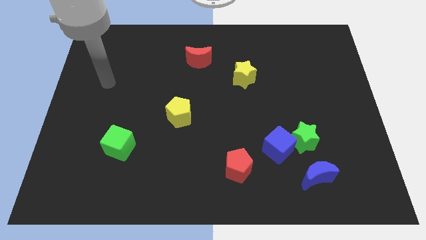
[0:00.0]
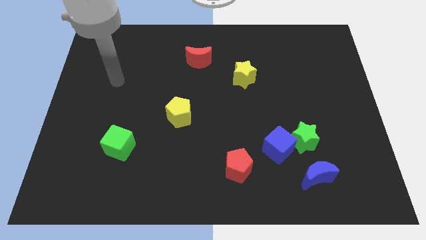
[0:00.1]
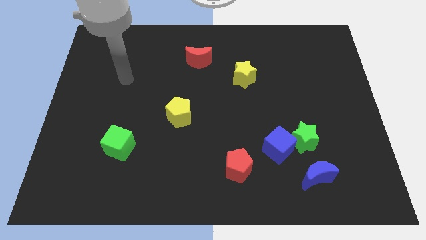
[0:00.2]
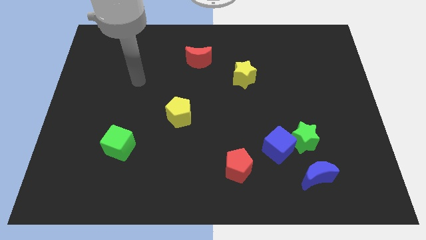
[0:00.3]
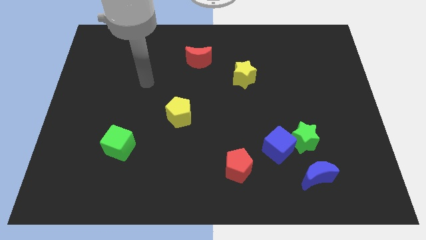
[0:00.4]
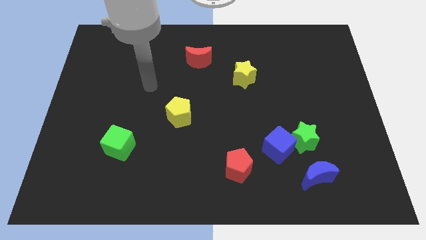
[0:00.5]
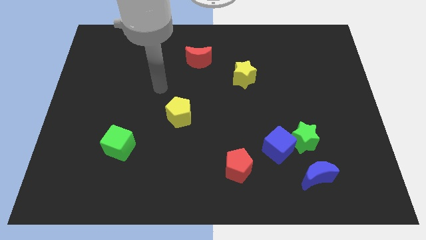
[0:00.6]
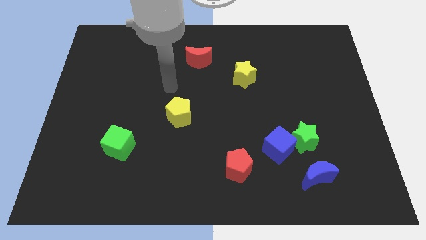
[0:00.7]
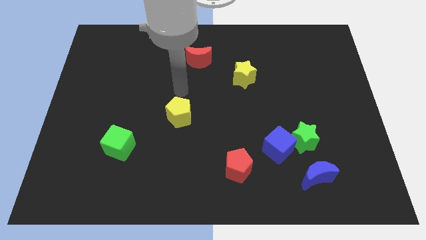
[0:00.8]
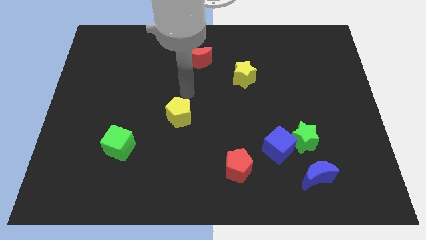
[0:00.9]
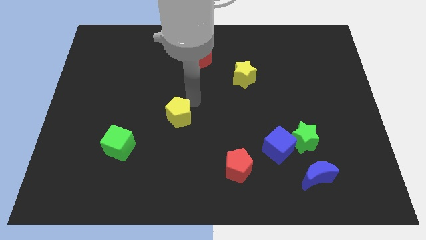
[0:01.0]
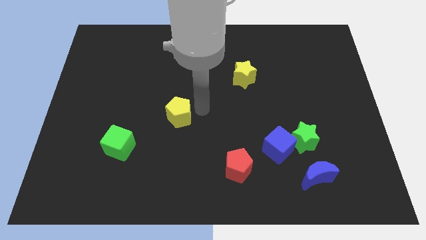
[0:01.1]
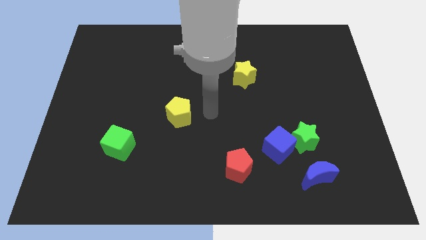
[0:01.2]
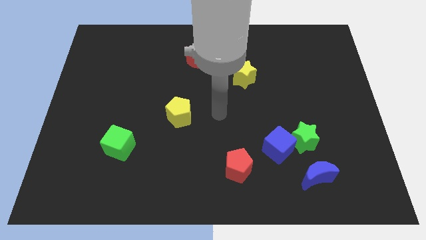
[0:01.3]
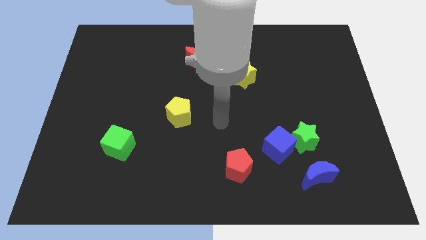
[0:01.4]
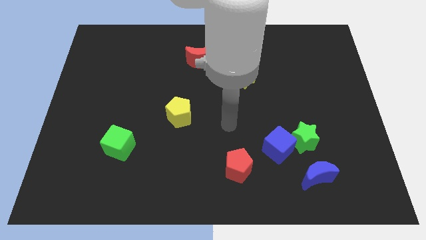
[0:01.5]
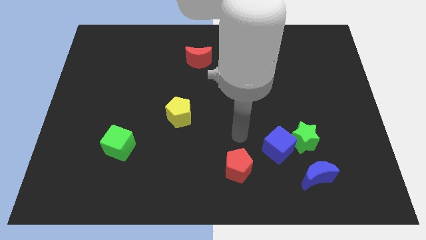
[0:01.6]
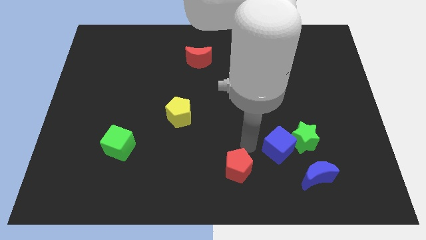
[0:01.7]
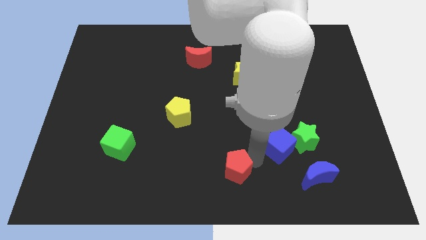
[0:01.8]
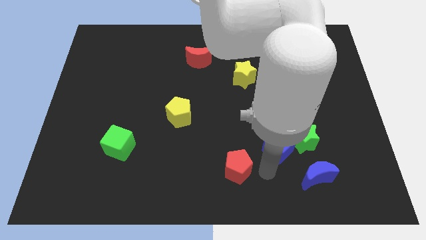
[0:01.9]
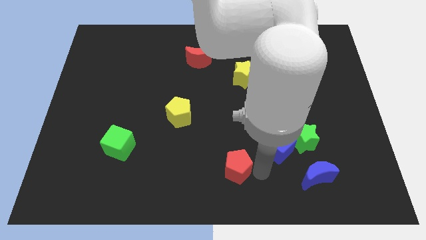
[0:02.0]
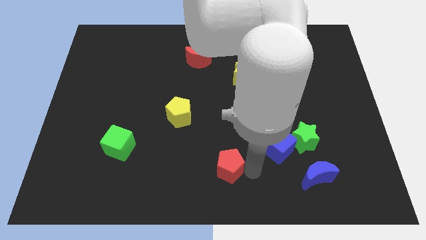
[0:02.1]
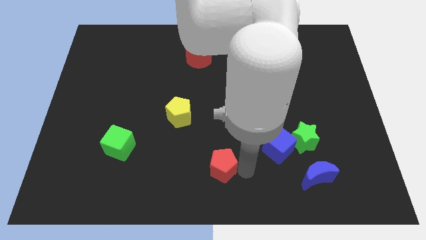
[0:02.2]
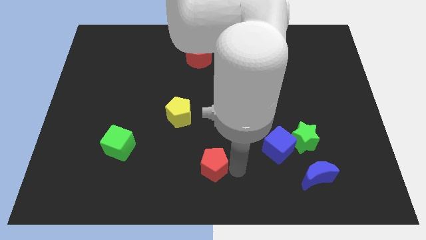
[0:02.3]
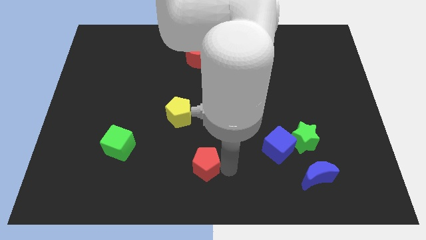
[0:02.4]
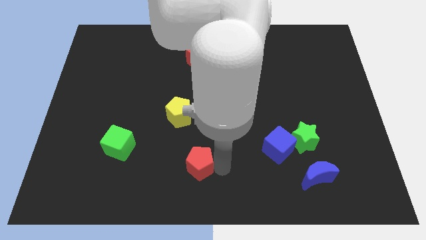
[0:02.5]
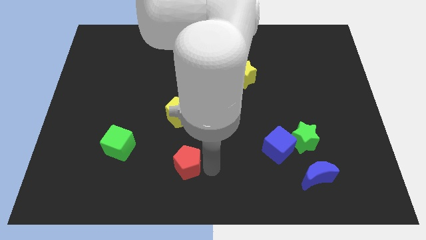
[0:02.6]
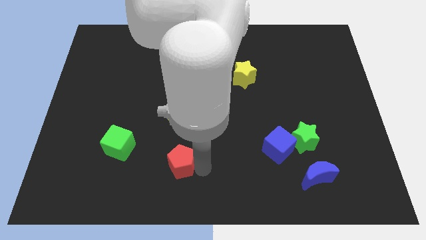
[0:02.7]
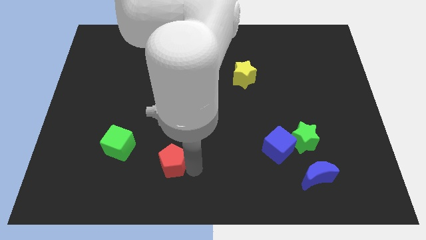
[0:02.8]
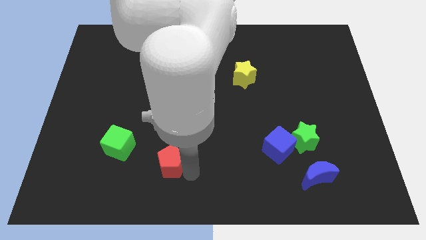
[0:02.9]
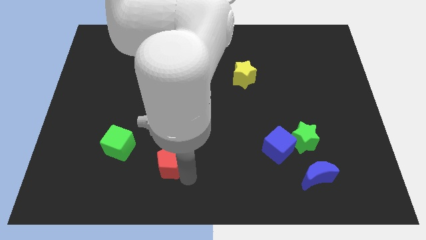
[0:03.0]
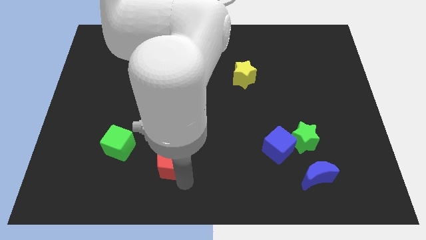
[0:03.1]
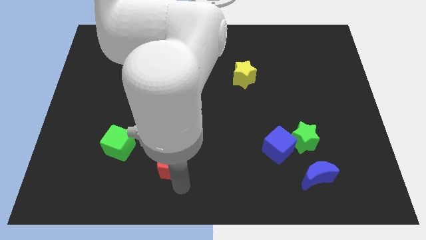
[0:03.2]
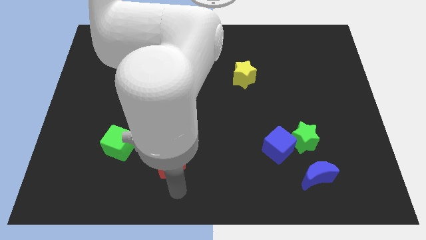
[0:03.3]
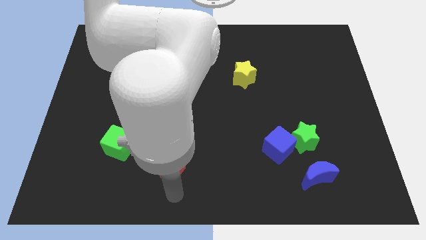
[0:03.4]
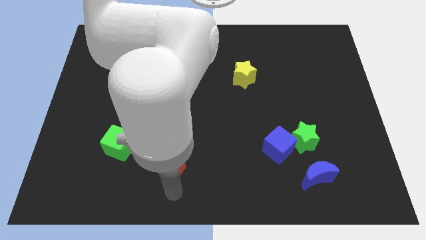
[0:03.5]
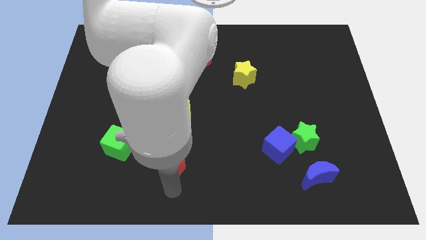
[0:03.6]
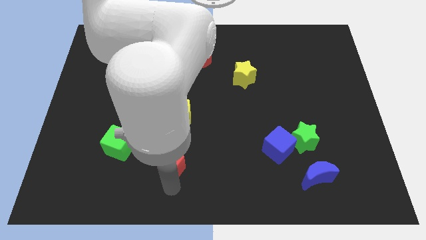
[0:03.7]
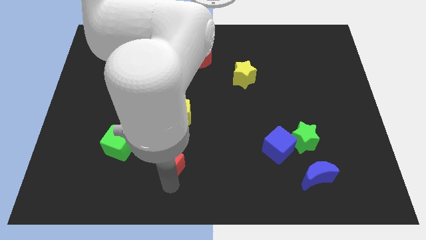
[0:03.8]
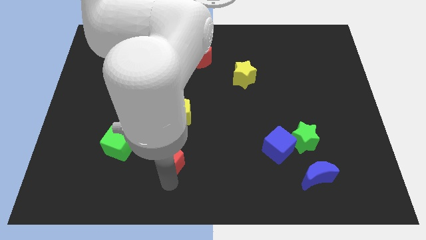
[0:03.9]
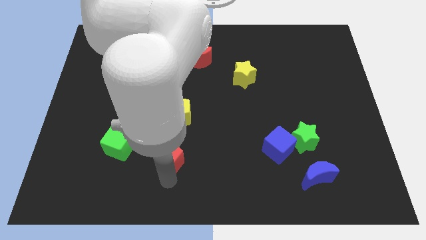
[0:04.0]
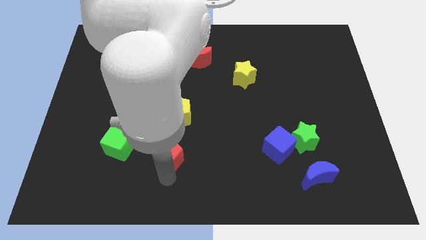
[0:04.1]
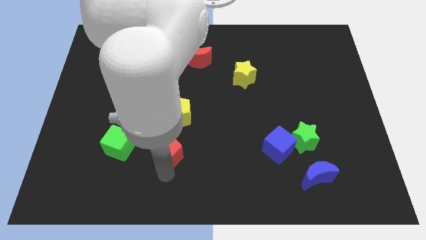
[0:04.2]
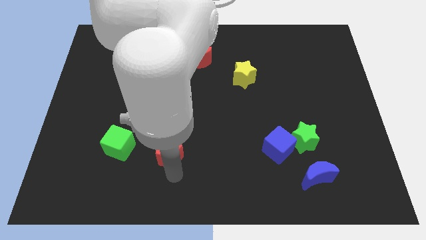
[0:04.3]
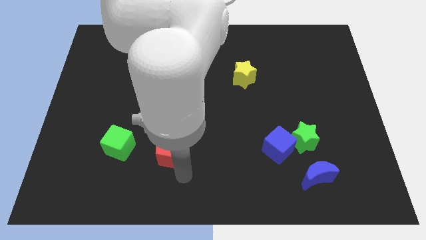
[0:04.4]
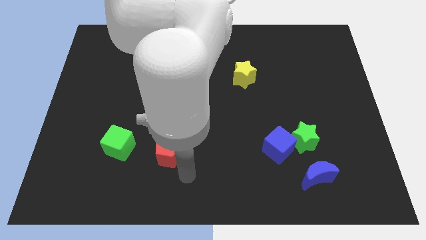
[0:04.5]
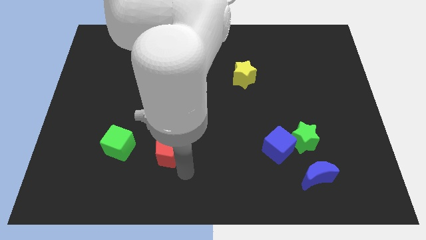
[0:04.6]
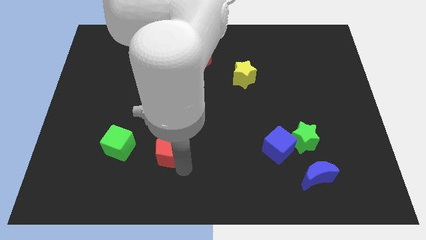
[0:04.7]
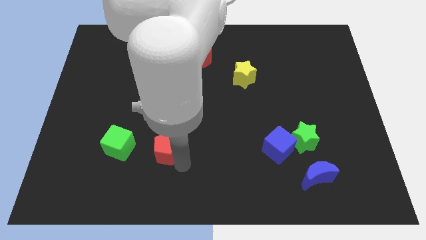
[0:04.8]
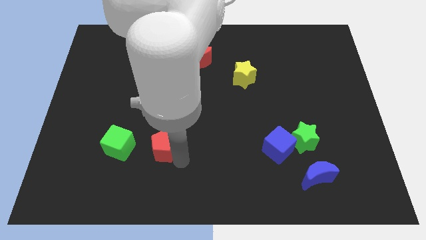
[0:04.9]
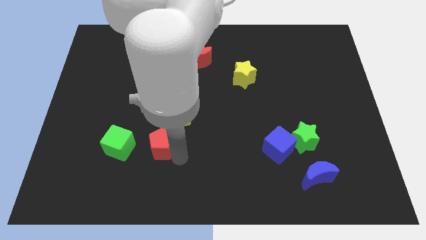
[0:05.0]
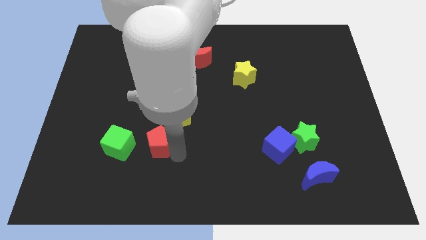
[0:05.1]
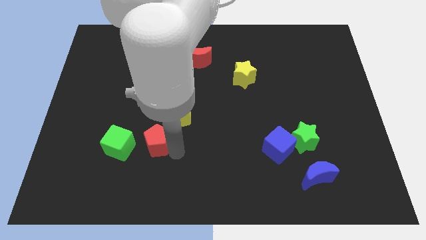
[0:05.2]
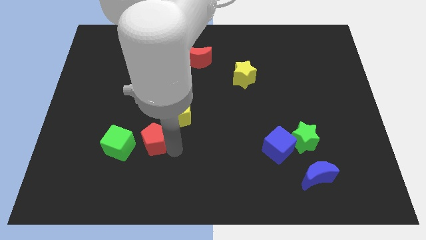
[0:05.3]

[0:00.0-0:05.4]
push the red pentagon to the top right side of the green cube

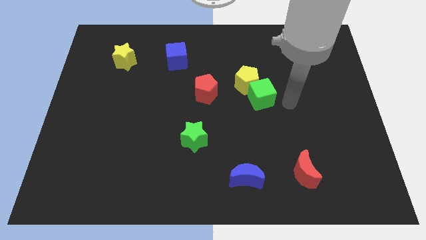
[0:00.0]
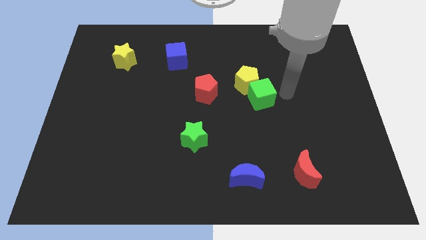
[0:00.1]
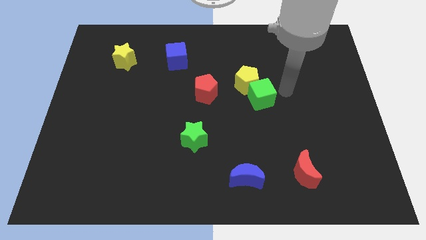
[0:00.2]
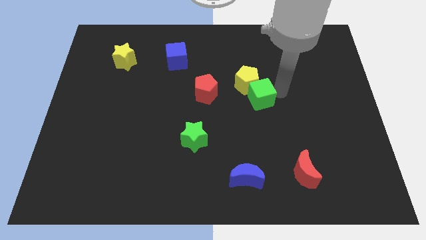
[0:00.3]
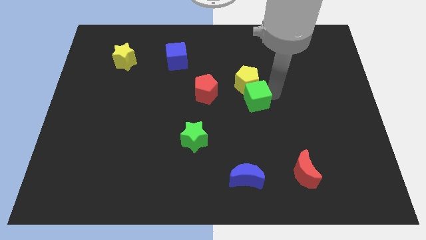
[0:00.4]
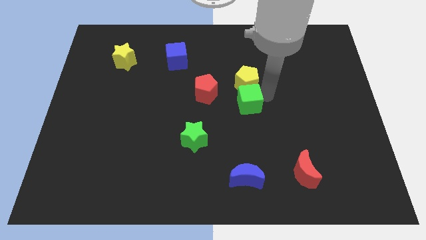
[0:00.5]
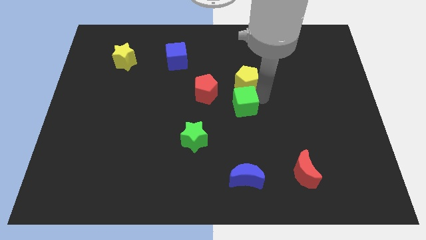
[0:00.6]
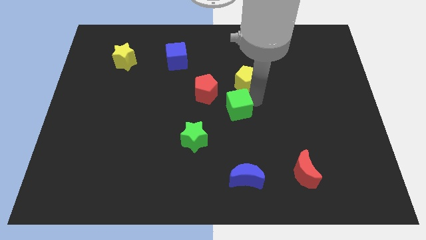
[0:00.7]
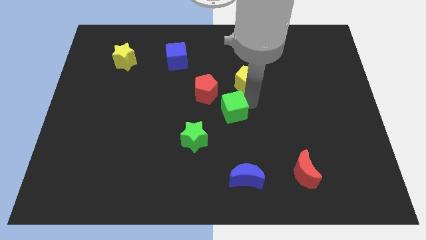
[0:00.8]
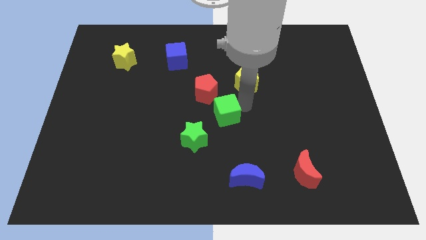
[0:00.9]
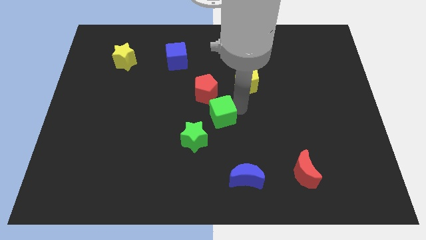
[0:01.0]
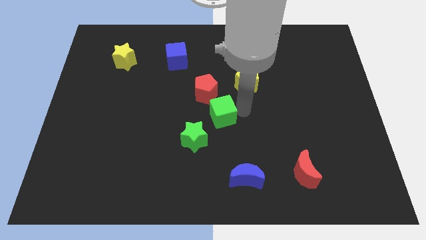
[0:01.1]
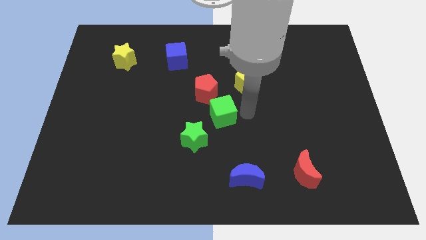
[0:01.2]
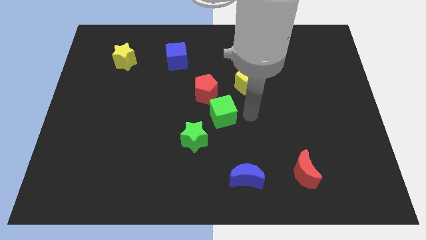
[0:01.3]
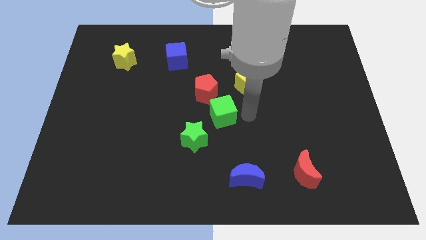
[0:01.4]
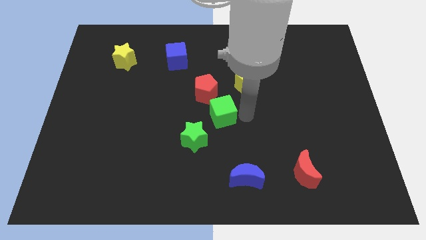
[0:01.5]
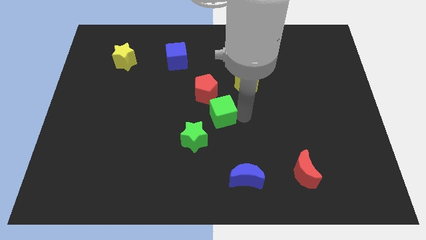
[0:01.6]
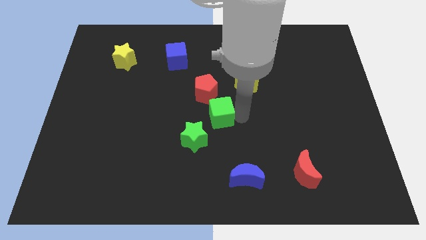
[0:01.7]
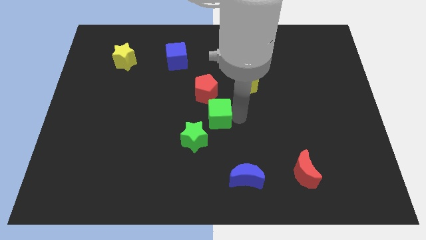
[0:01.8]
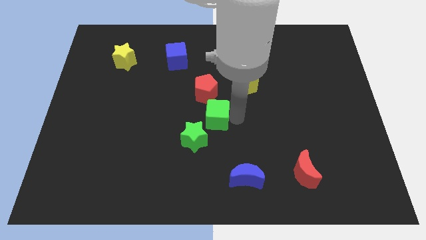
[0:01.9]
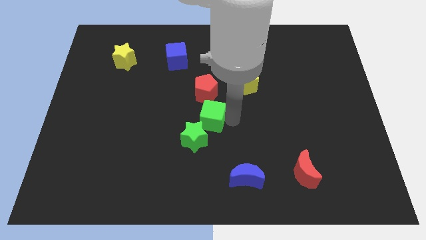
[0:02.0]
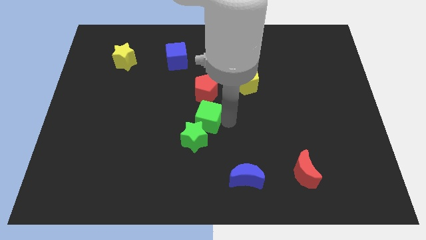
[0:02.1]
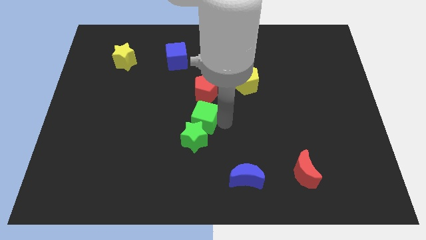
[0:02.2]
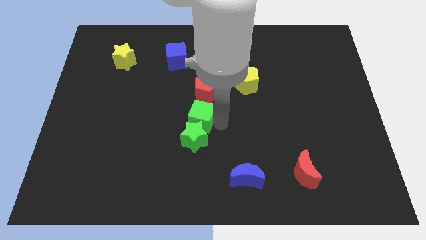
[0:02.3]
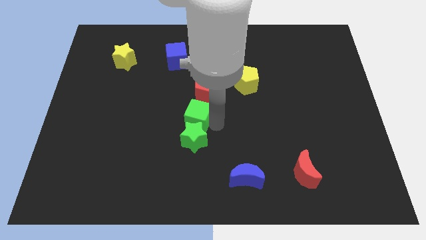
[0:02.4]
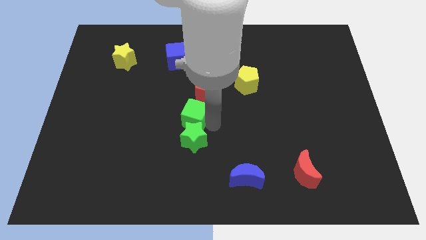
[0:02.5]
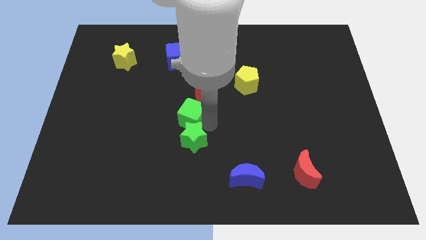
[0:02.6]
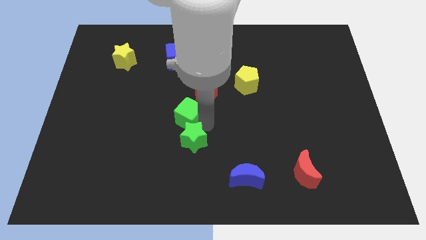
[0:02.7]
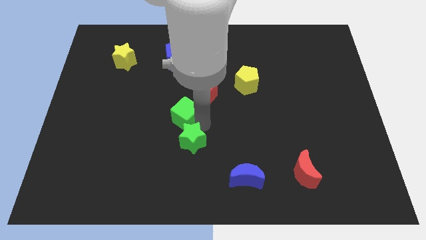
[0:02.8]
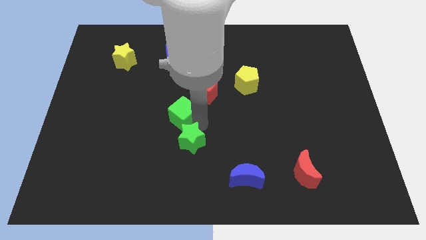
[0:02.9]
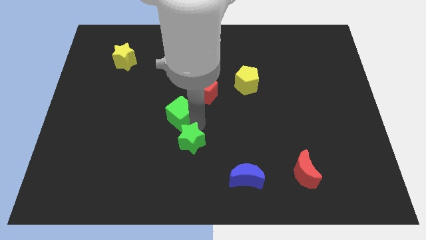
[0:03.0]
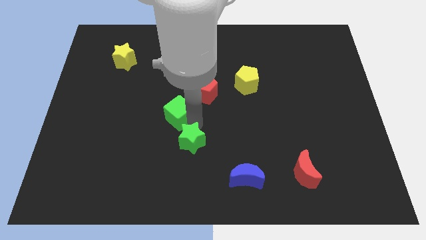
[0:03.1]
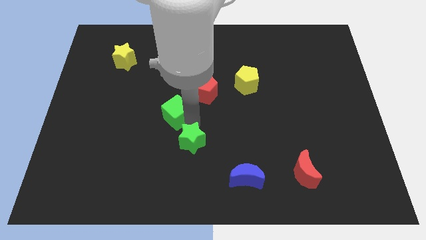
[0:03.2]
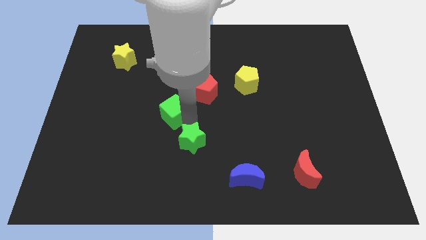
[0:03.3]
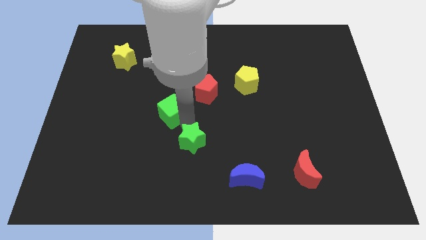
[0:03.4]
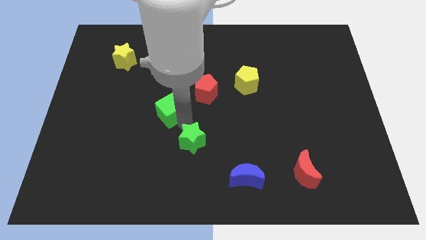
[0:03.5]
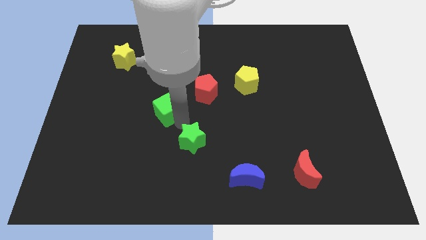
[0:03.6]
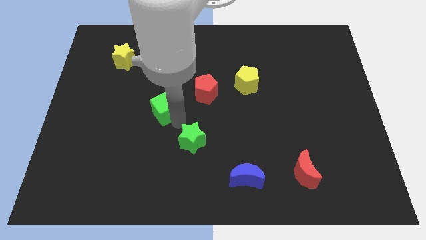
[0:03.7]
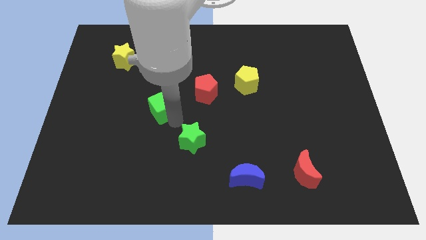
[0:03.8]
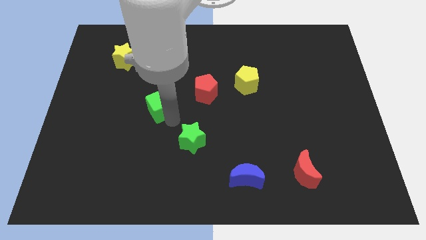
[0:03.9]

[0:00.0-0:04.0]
put the green cube to the left side of the red pentagon
